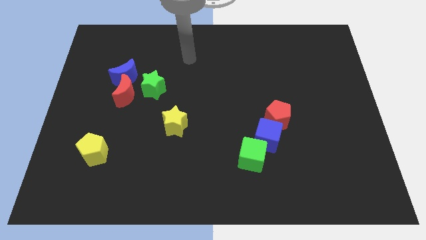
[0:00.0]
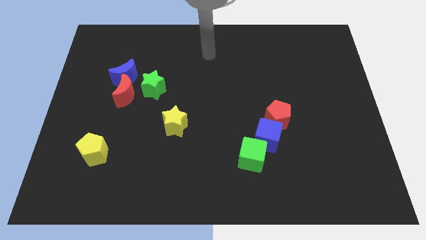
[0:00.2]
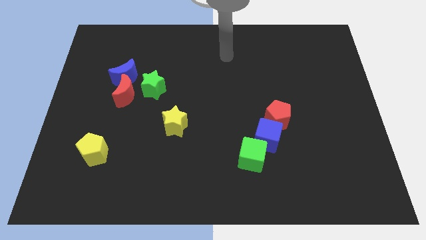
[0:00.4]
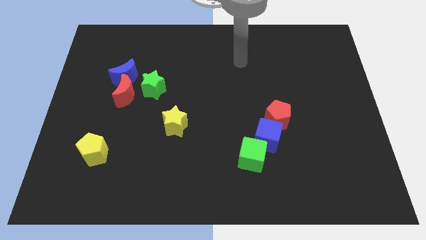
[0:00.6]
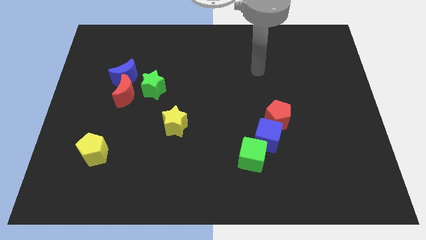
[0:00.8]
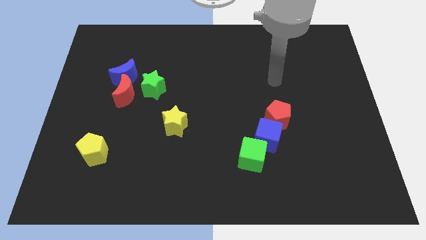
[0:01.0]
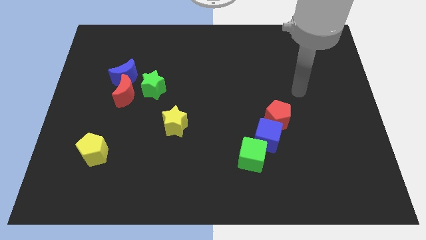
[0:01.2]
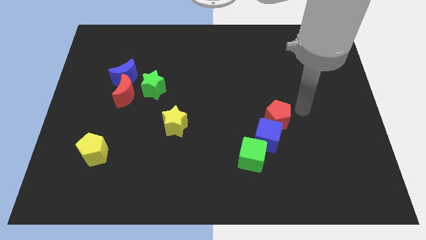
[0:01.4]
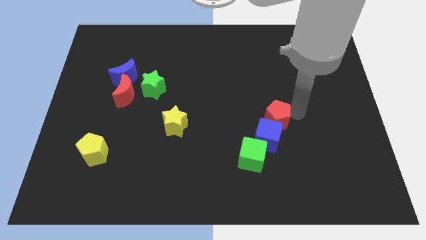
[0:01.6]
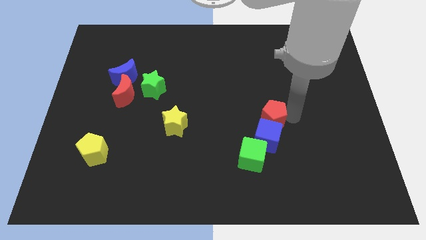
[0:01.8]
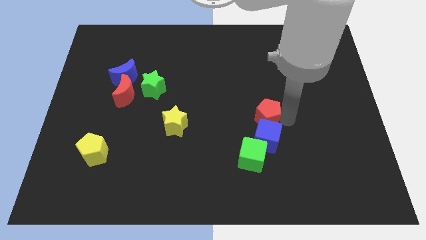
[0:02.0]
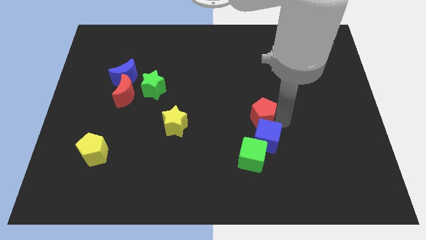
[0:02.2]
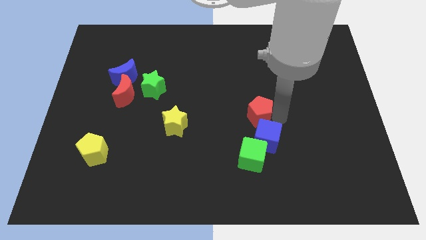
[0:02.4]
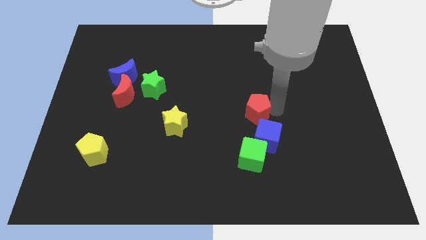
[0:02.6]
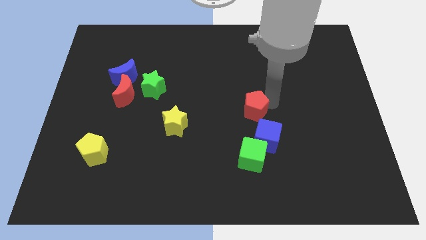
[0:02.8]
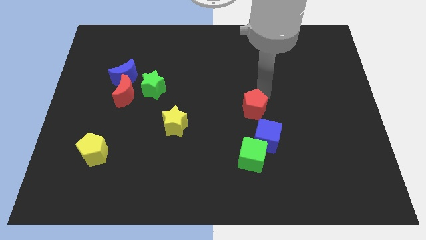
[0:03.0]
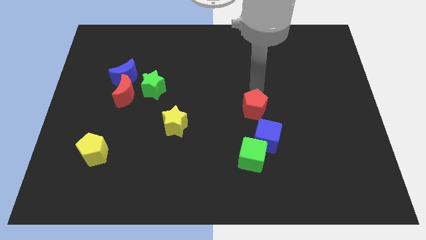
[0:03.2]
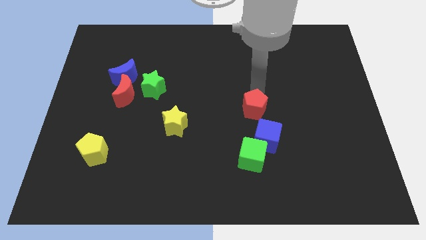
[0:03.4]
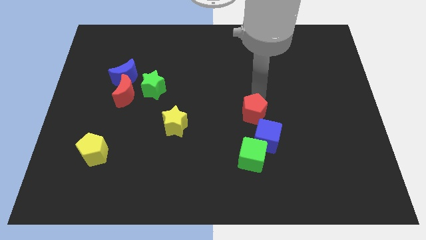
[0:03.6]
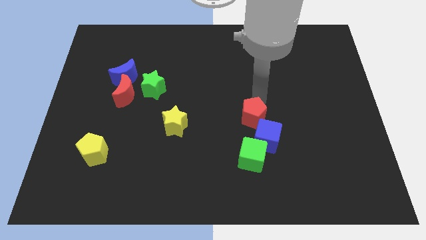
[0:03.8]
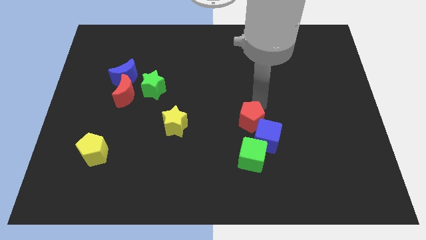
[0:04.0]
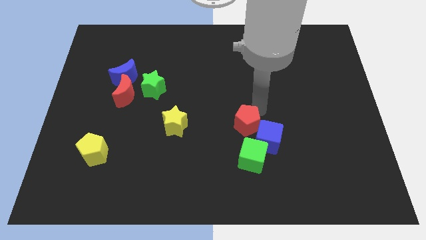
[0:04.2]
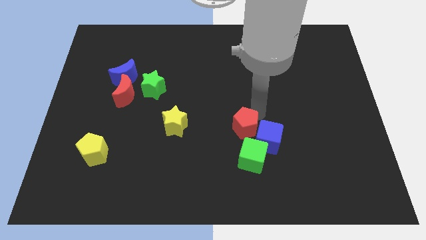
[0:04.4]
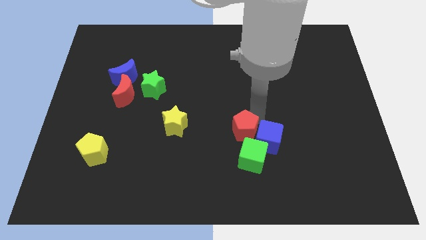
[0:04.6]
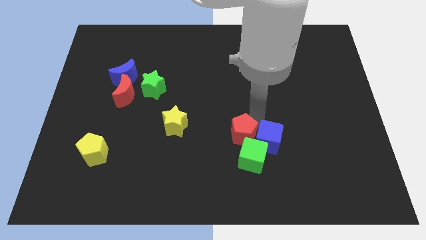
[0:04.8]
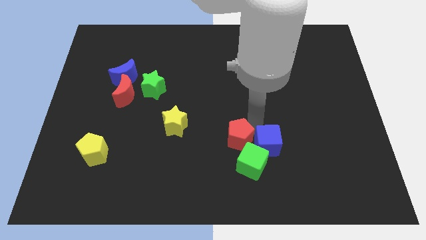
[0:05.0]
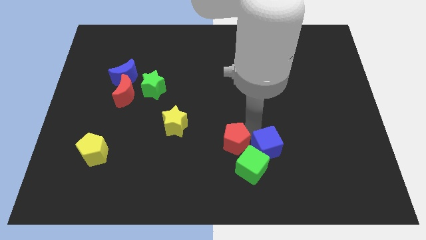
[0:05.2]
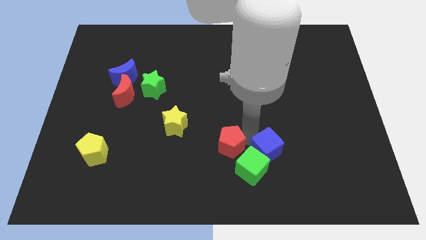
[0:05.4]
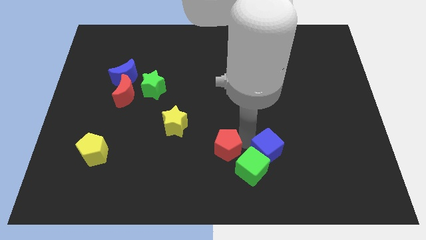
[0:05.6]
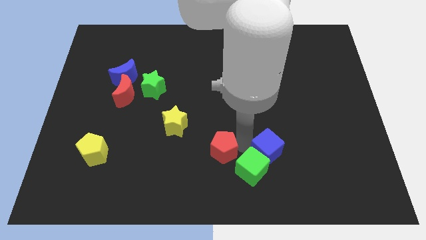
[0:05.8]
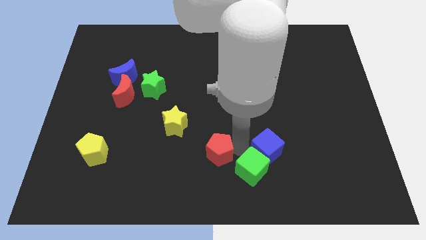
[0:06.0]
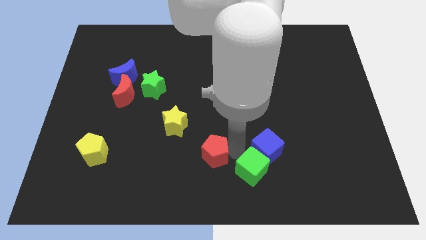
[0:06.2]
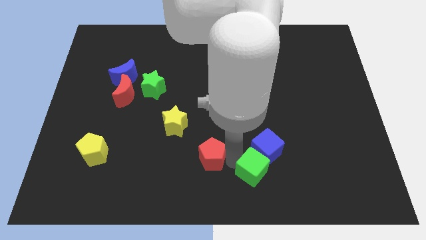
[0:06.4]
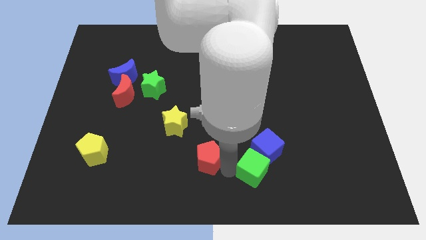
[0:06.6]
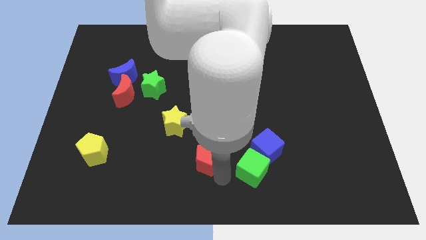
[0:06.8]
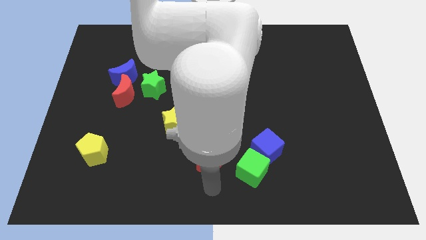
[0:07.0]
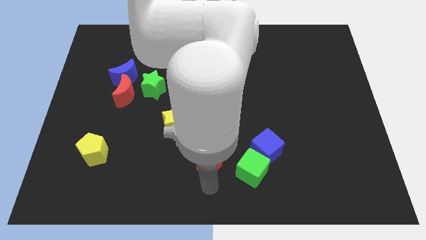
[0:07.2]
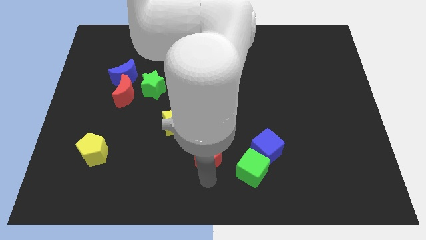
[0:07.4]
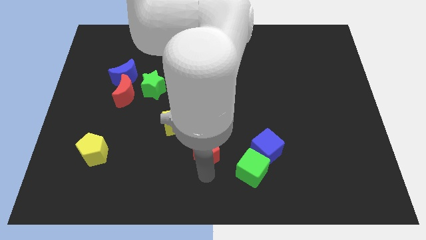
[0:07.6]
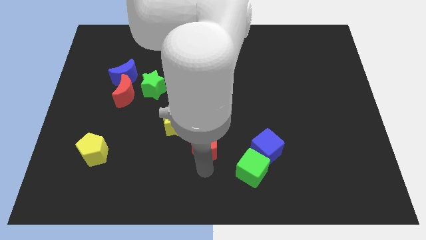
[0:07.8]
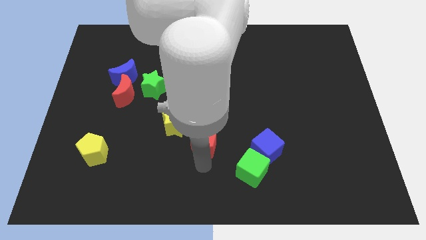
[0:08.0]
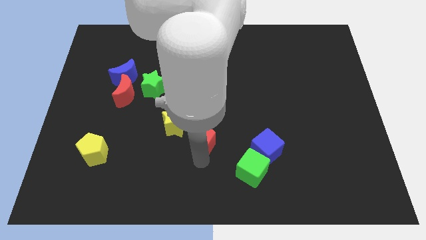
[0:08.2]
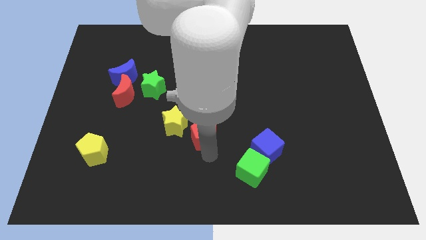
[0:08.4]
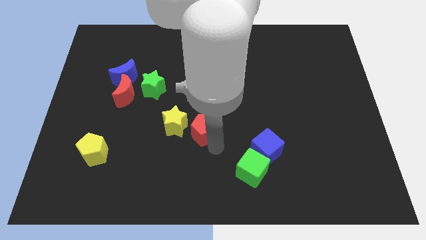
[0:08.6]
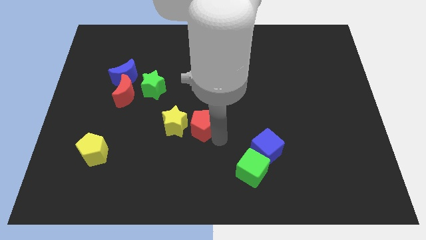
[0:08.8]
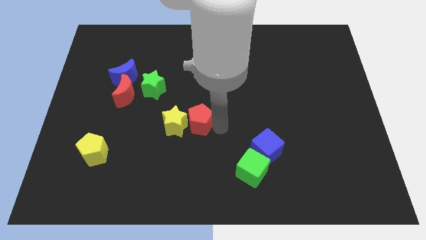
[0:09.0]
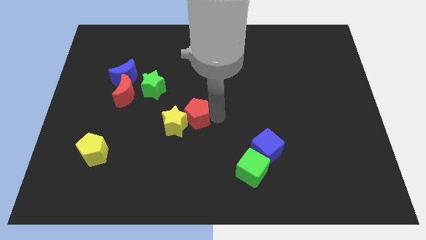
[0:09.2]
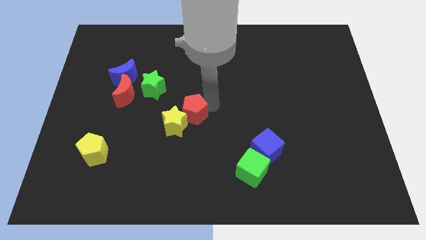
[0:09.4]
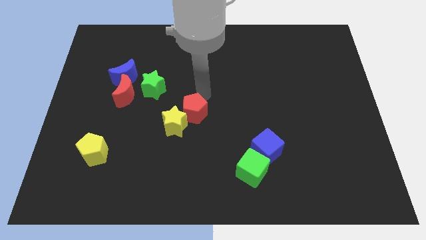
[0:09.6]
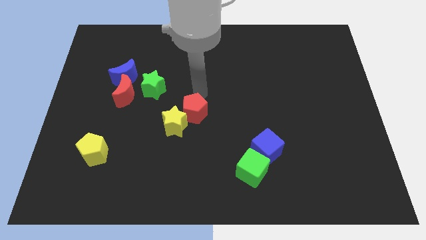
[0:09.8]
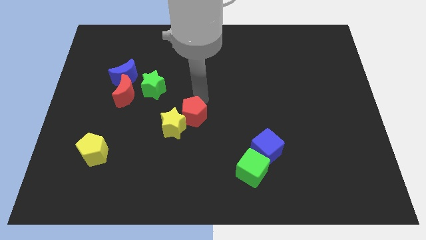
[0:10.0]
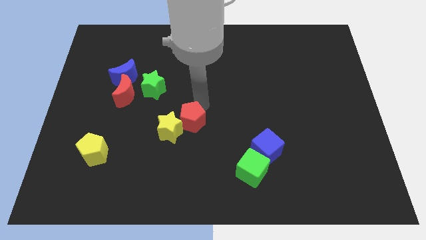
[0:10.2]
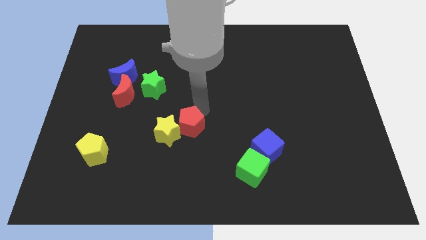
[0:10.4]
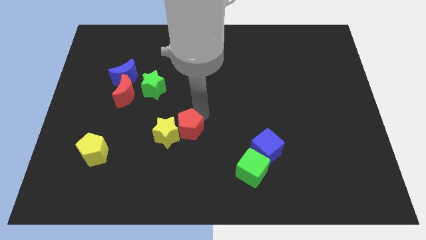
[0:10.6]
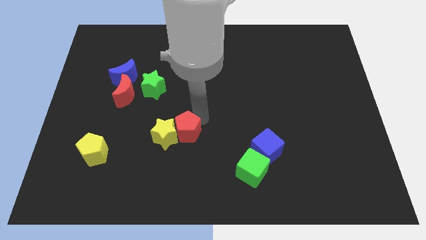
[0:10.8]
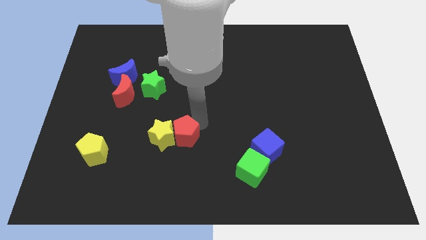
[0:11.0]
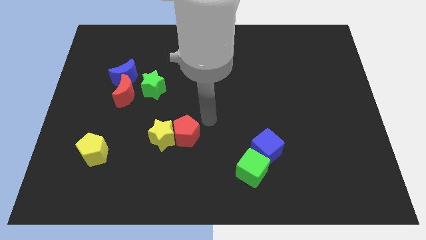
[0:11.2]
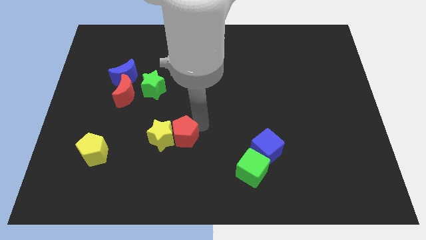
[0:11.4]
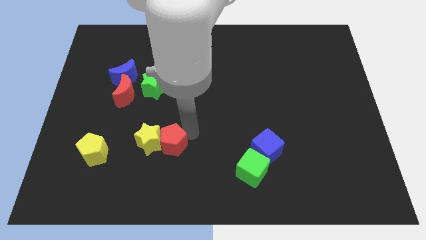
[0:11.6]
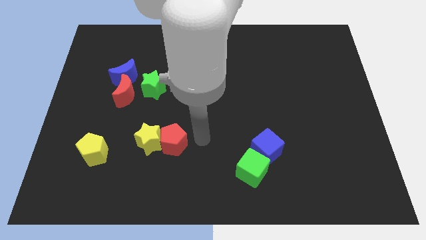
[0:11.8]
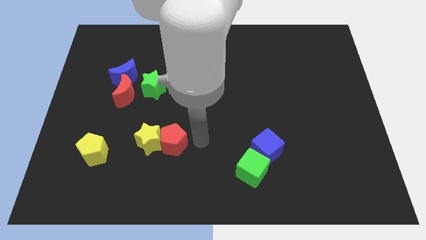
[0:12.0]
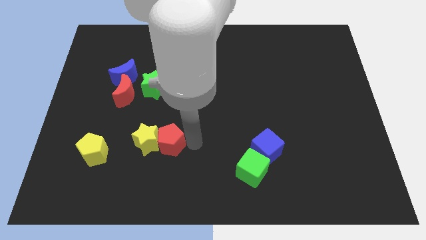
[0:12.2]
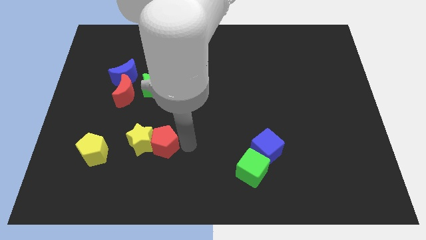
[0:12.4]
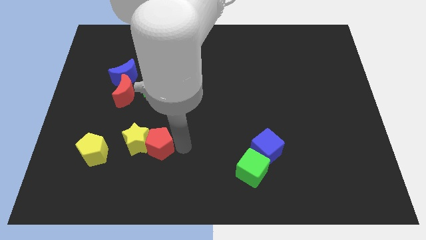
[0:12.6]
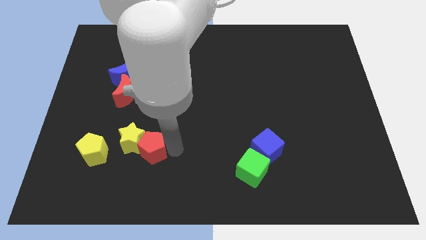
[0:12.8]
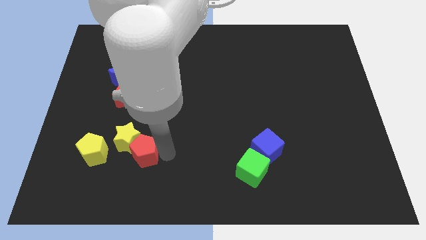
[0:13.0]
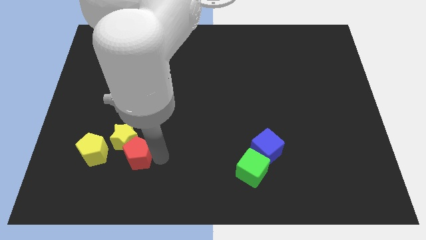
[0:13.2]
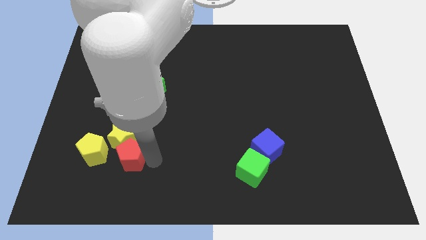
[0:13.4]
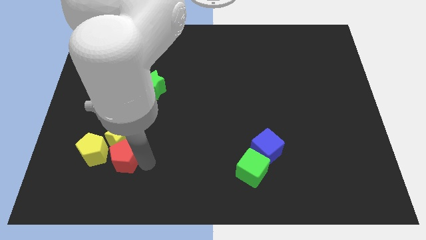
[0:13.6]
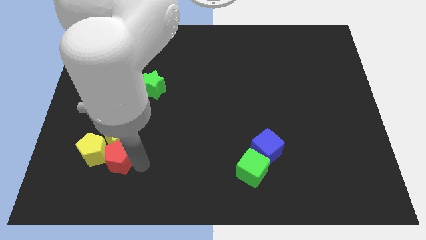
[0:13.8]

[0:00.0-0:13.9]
push the red pentagon towards the yellow pentagon

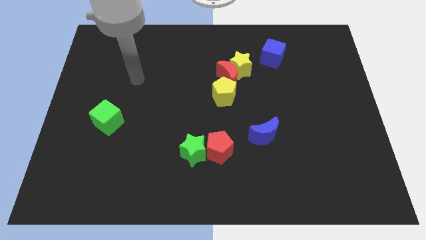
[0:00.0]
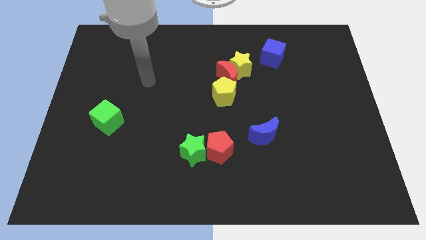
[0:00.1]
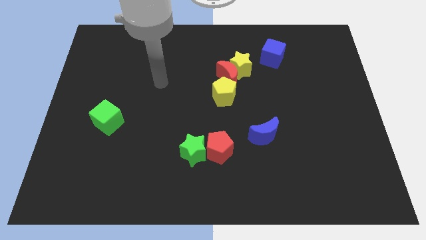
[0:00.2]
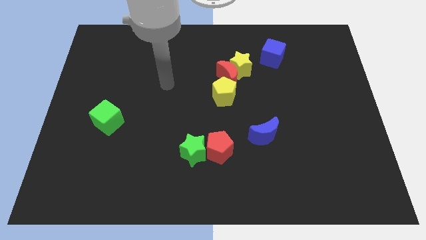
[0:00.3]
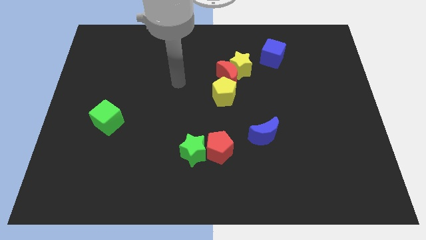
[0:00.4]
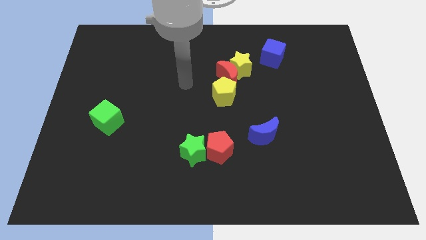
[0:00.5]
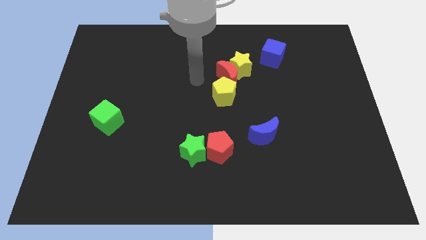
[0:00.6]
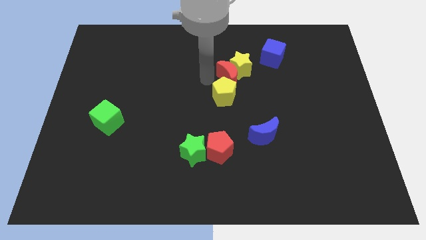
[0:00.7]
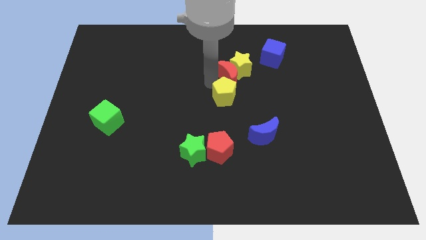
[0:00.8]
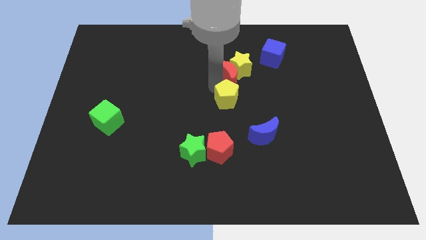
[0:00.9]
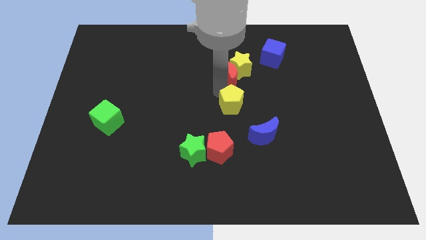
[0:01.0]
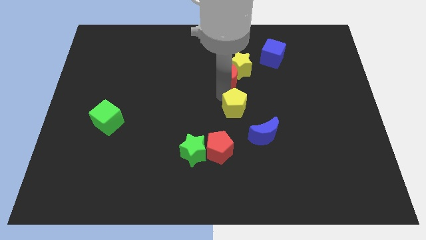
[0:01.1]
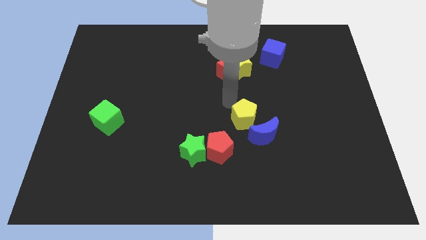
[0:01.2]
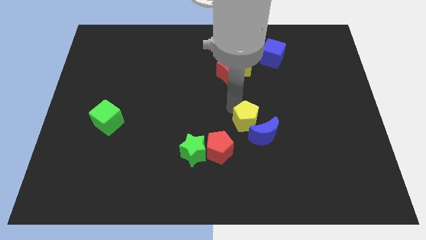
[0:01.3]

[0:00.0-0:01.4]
push the yellow pentagon to the blue moon
